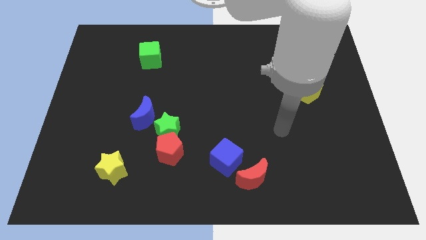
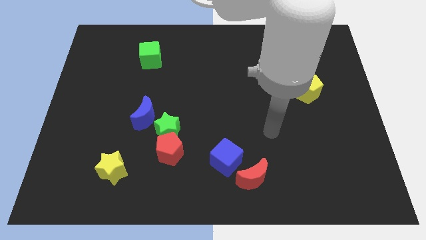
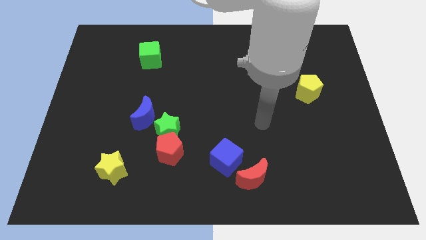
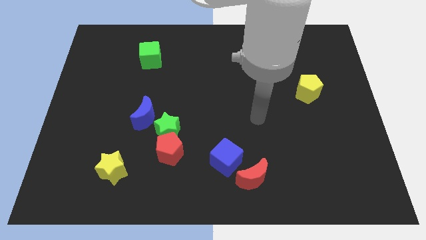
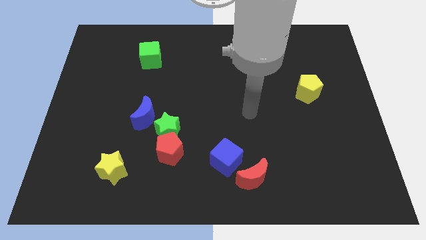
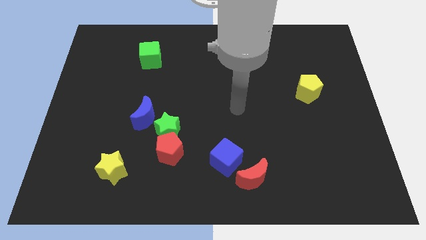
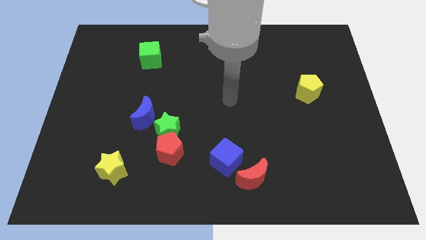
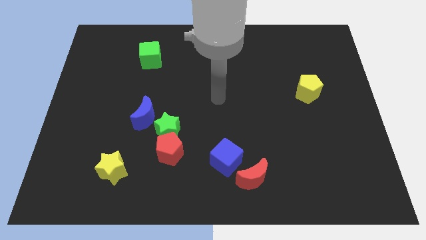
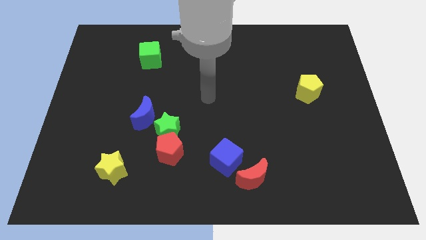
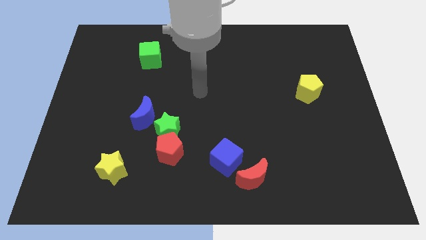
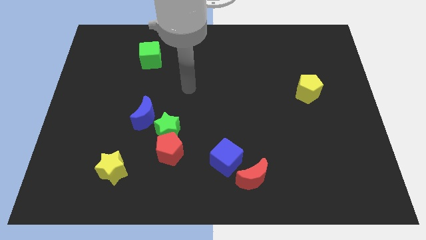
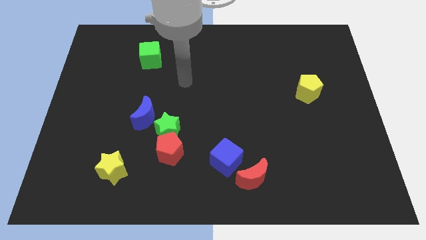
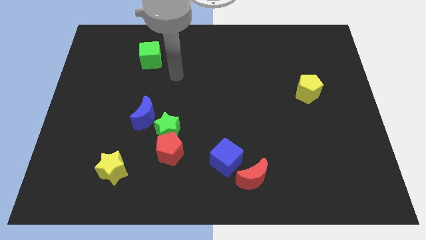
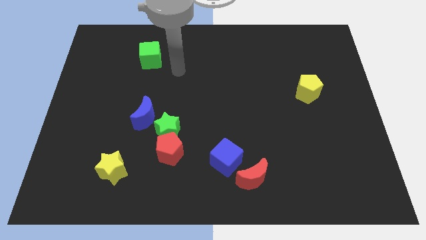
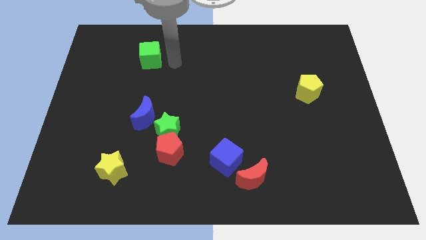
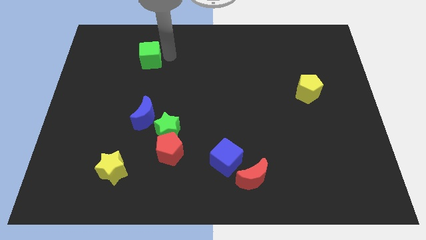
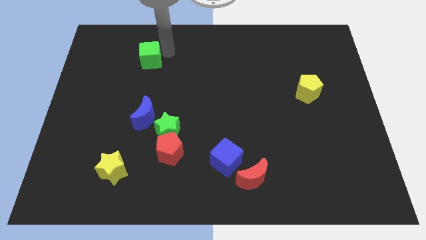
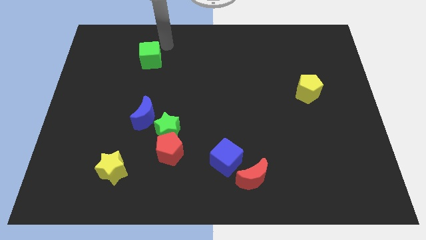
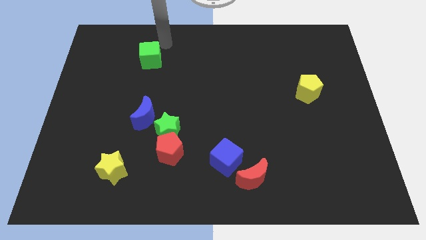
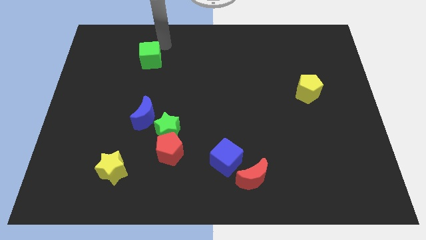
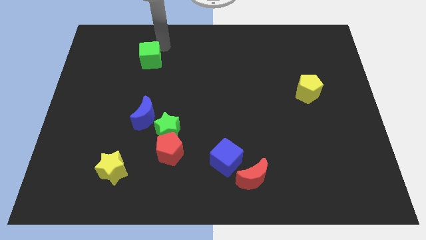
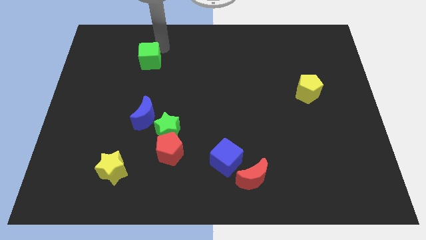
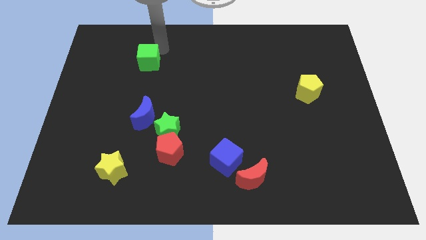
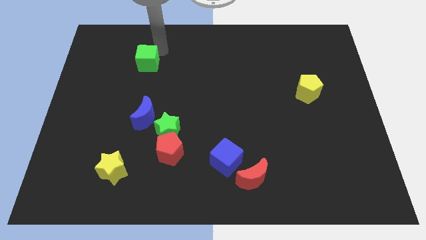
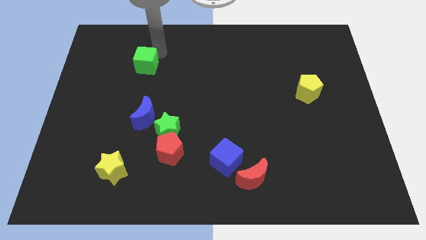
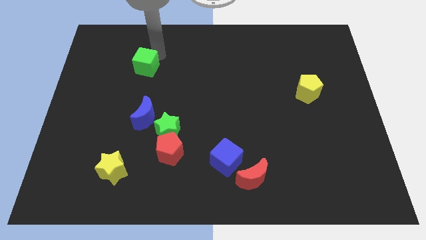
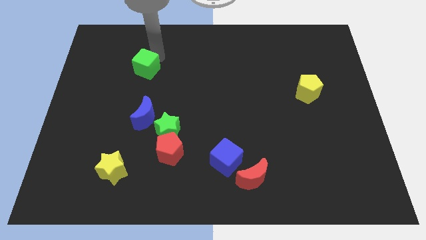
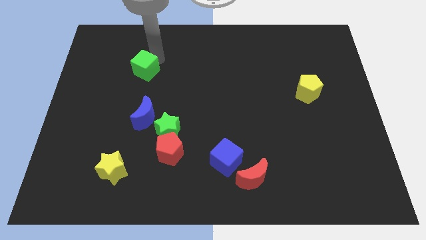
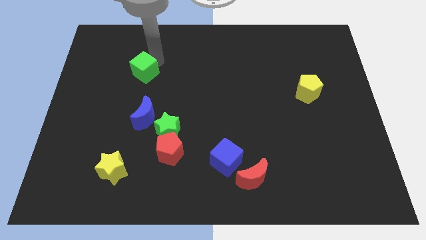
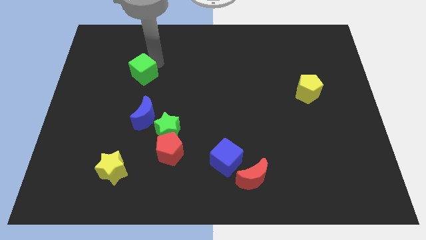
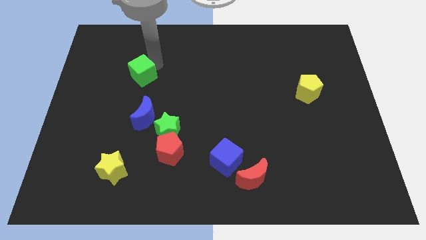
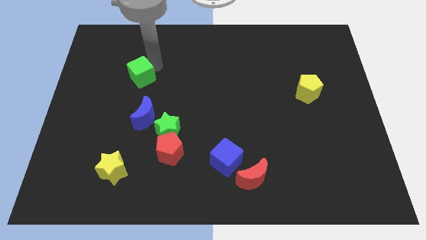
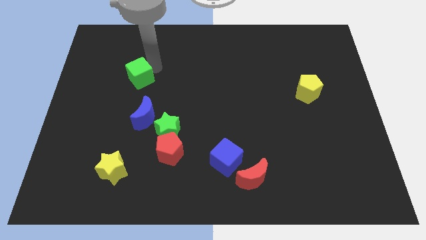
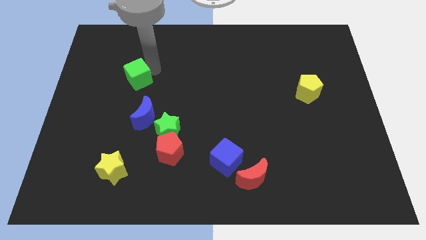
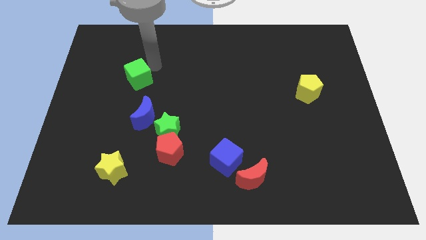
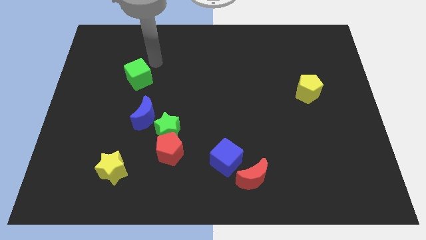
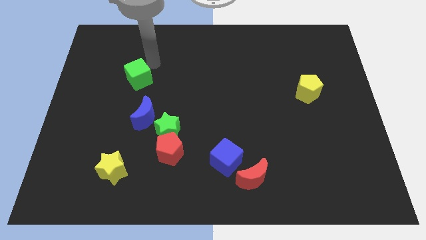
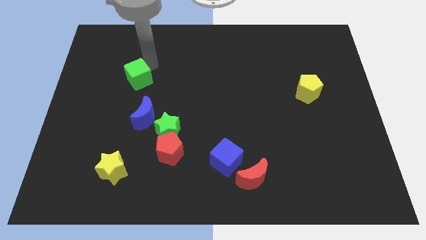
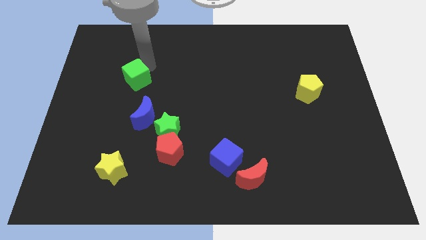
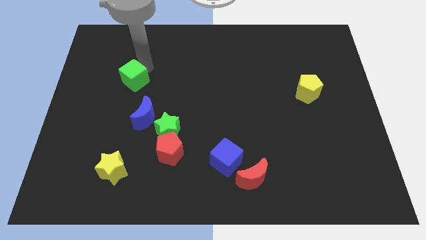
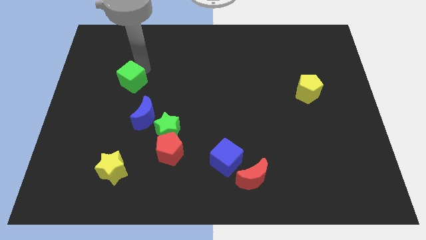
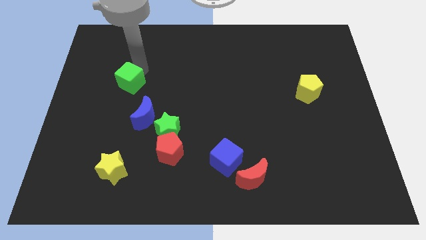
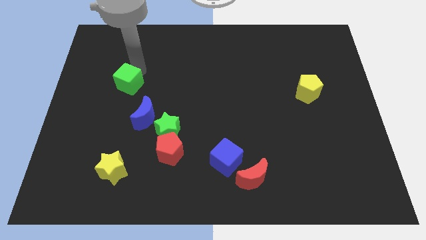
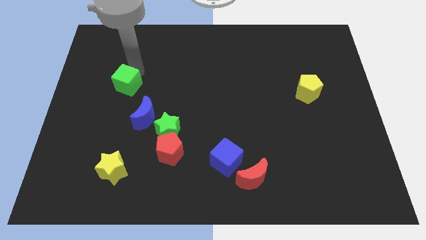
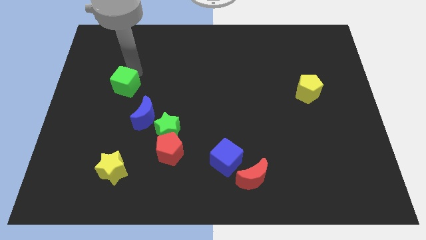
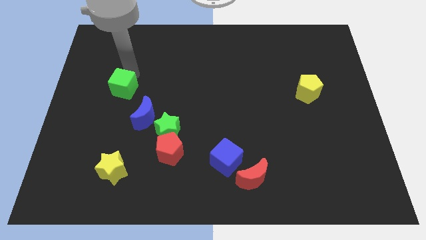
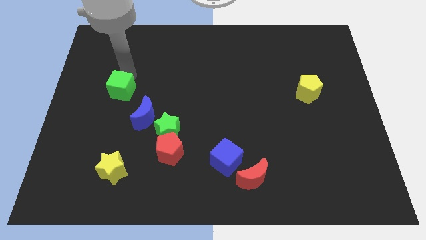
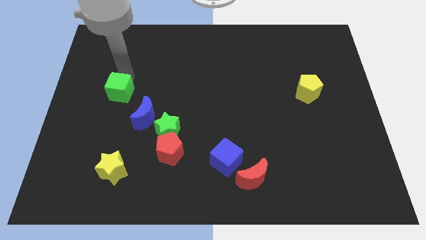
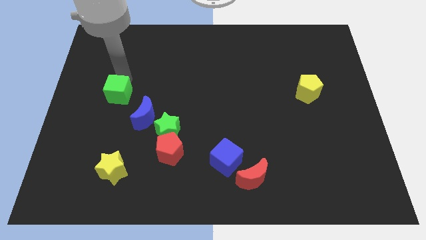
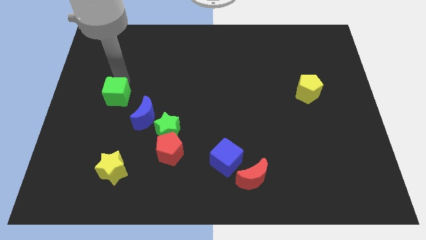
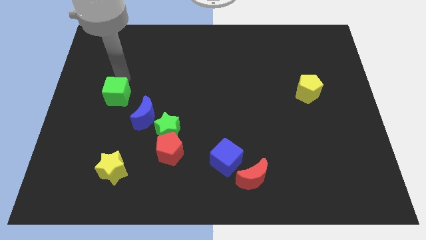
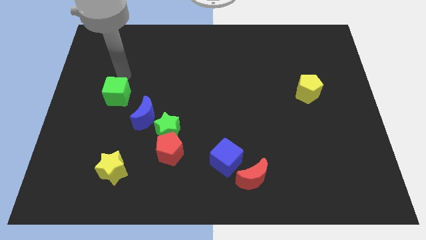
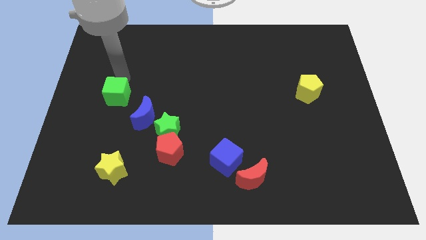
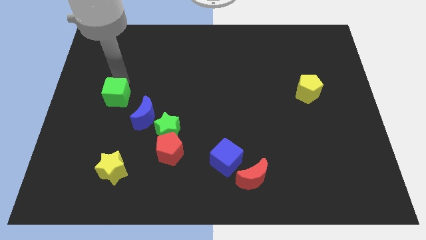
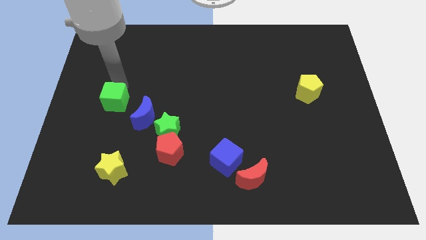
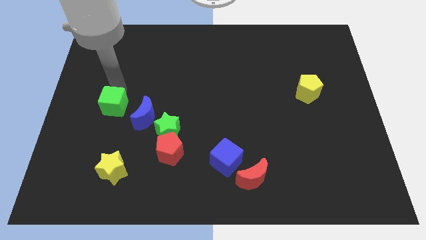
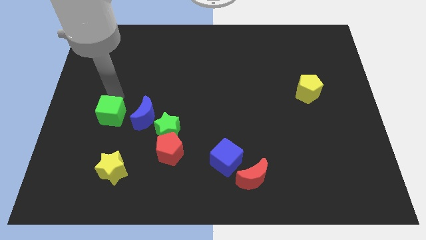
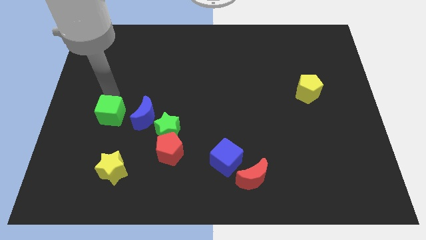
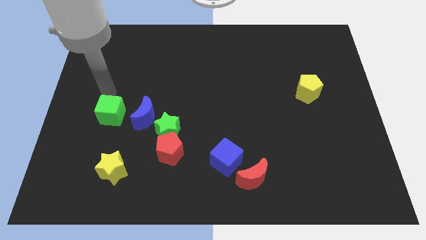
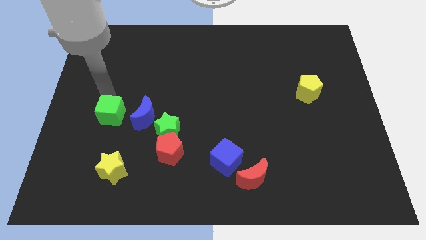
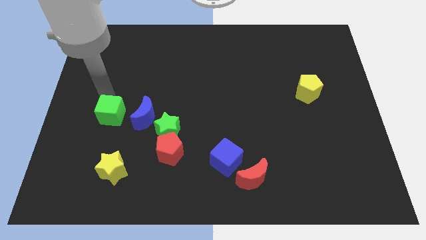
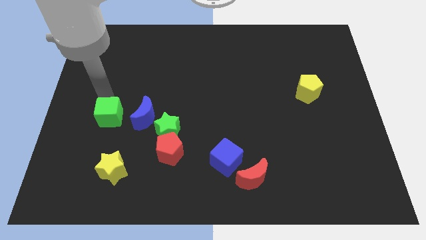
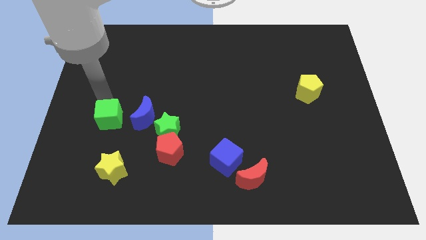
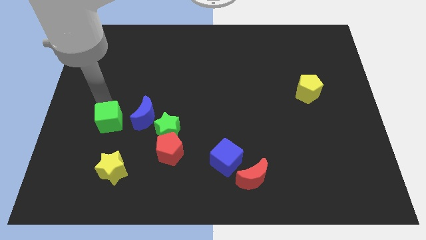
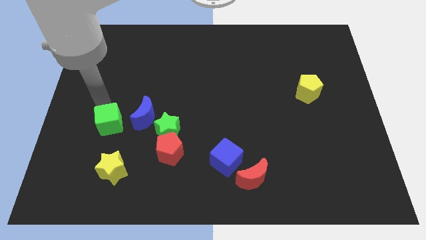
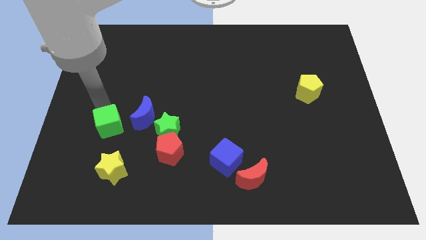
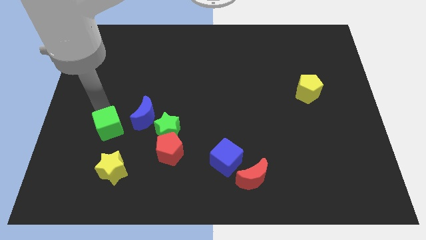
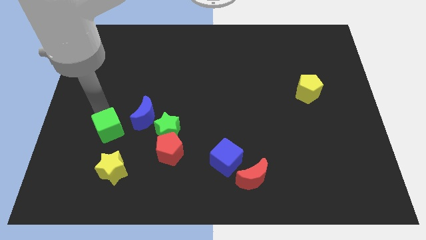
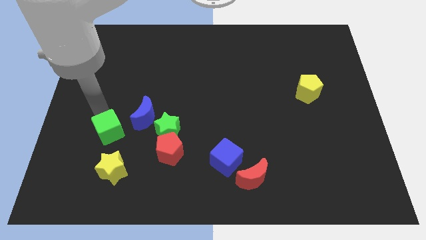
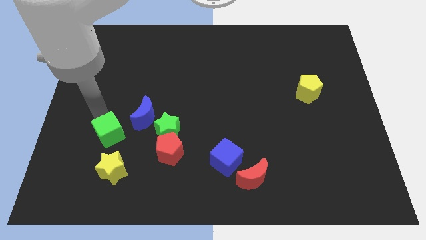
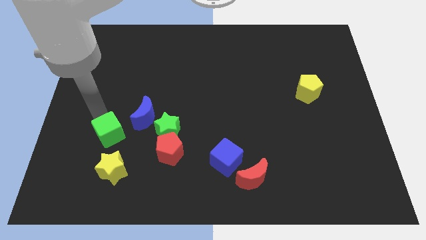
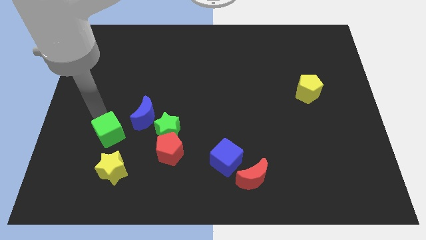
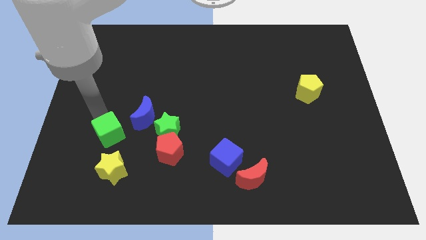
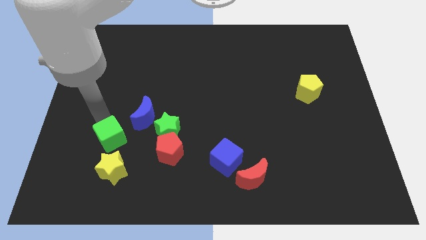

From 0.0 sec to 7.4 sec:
slide the green cube just left of the red pentagon

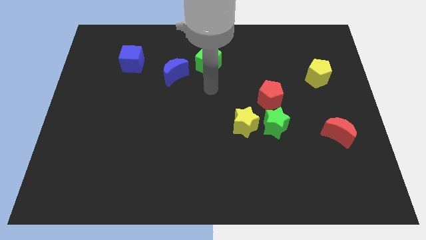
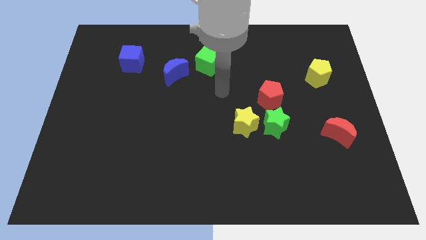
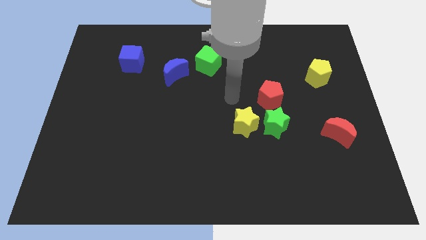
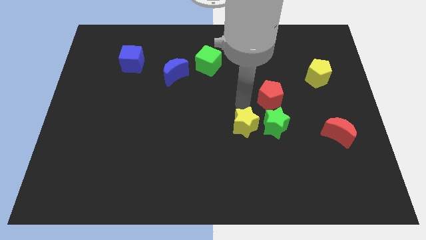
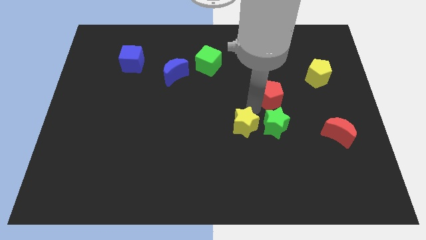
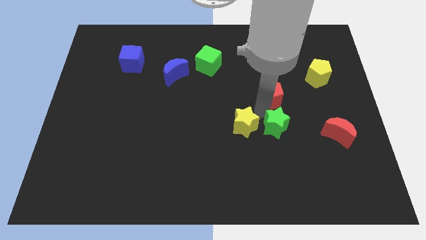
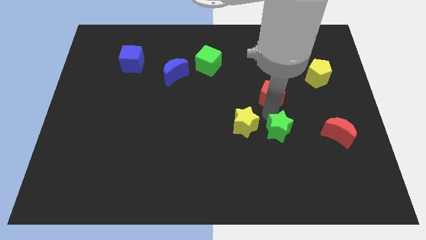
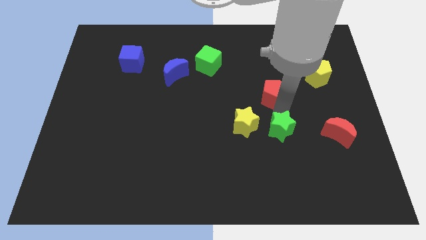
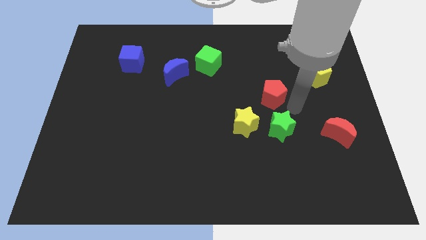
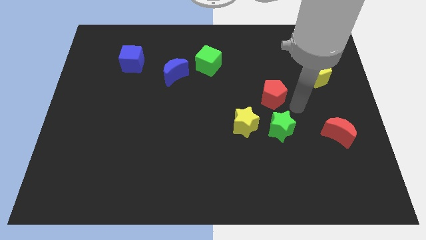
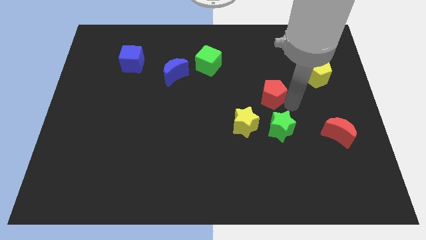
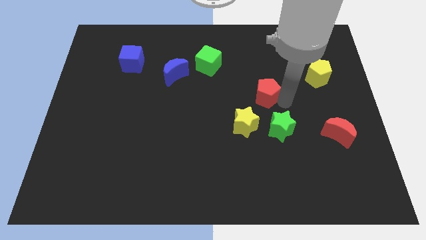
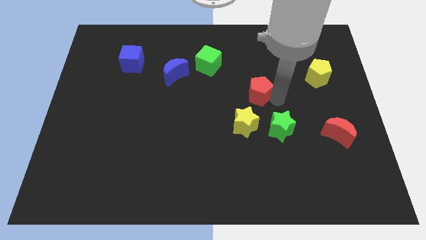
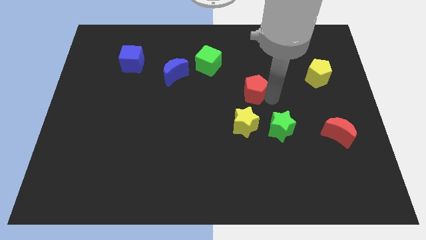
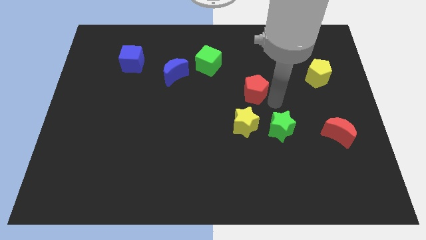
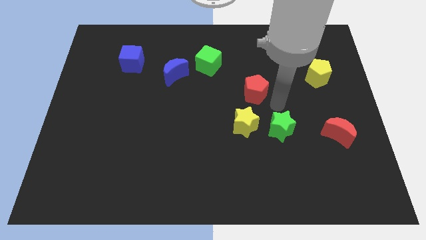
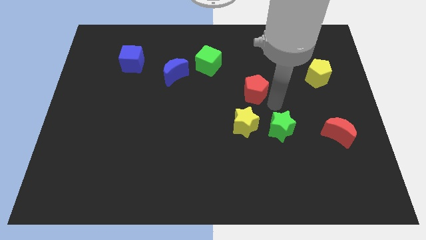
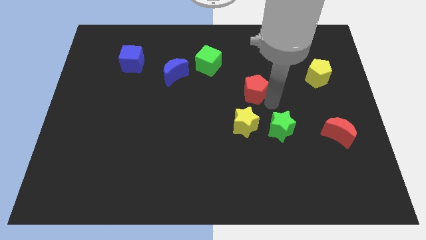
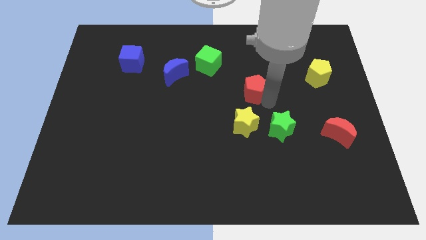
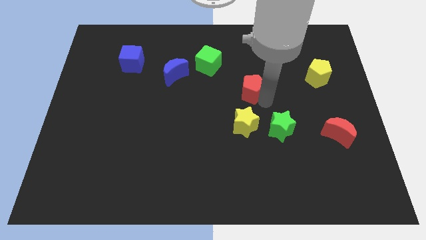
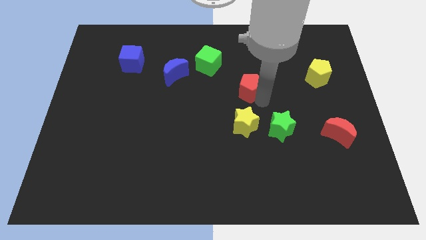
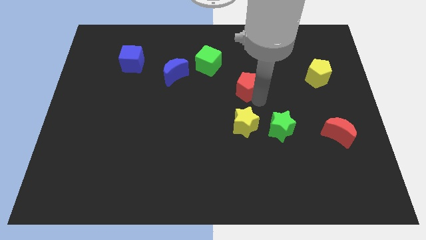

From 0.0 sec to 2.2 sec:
move the red pentagon to the bottom right side of the green cube
